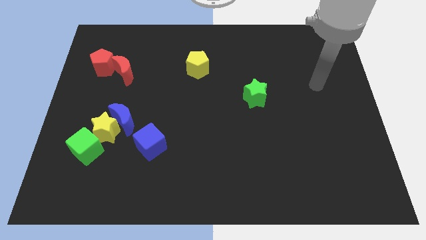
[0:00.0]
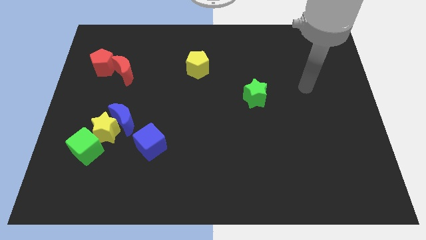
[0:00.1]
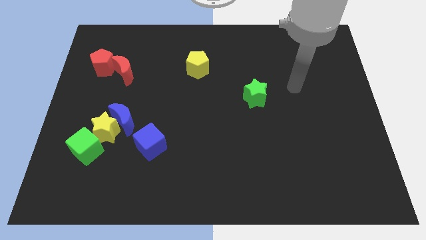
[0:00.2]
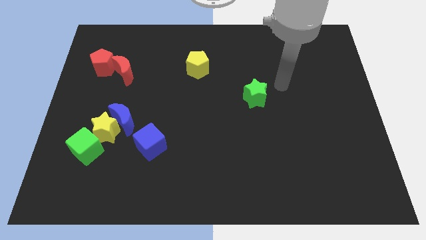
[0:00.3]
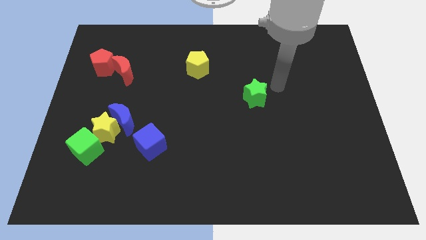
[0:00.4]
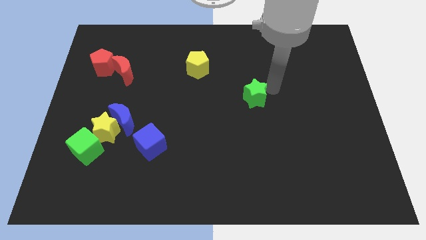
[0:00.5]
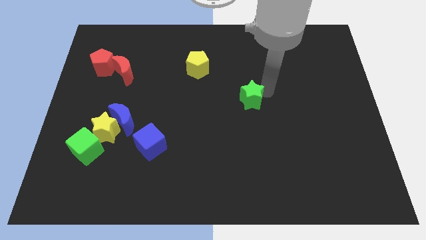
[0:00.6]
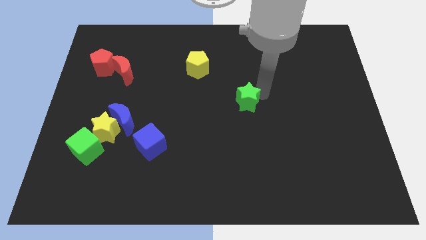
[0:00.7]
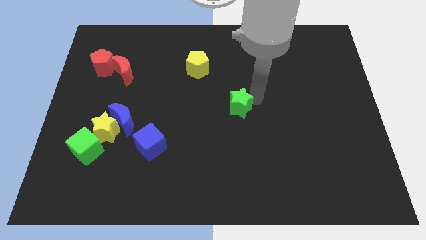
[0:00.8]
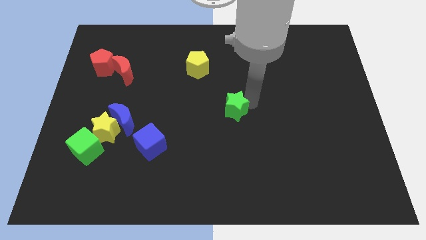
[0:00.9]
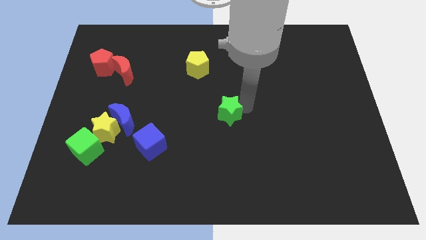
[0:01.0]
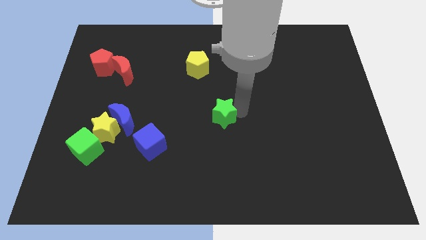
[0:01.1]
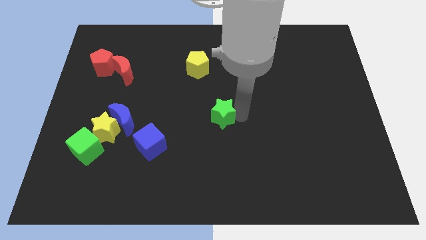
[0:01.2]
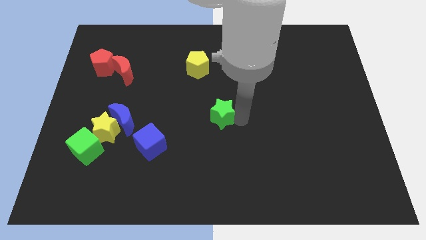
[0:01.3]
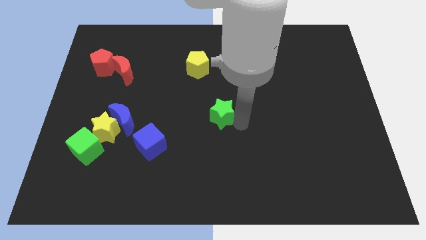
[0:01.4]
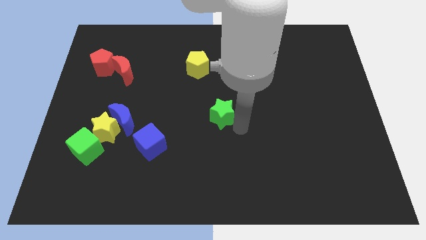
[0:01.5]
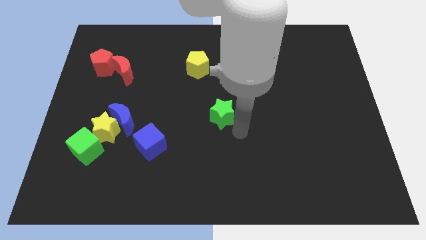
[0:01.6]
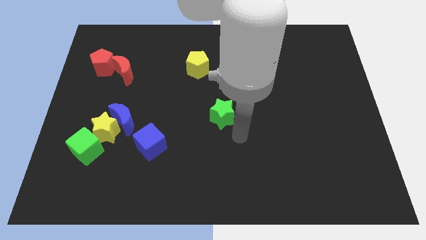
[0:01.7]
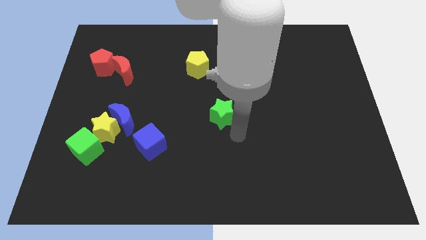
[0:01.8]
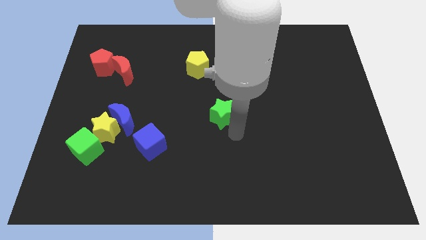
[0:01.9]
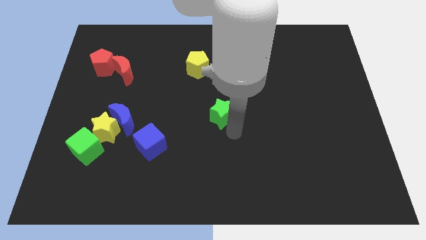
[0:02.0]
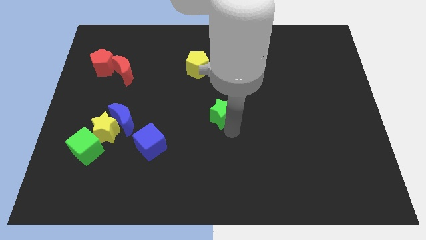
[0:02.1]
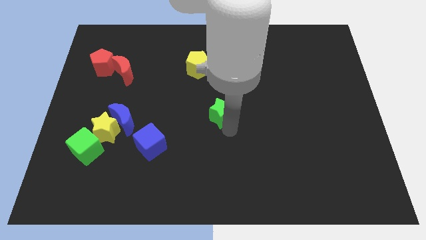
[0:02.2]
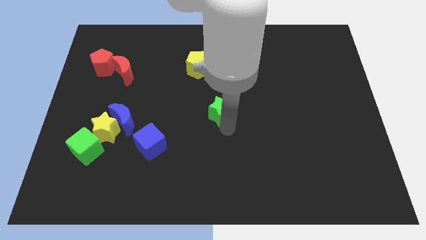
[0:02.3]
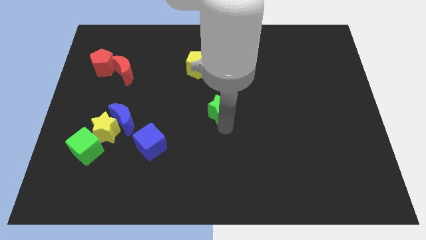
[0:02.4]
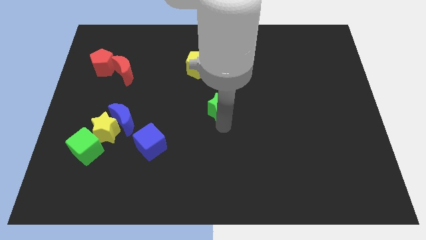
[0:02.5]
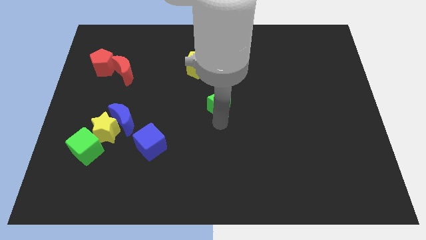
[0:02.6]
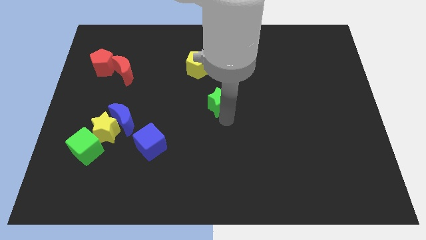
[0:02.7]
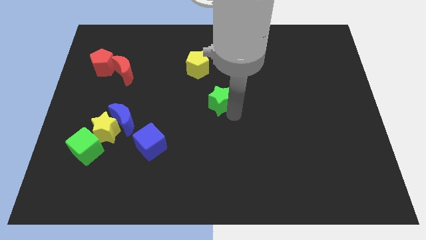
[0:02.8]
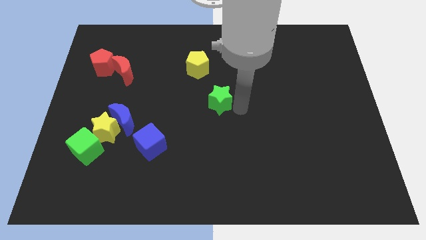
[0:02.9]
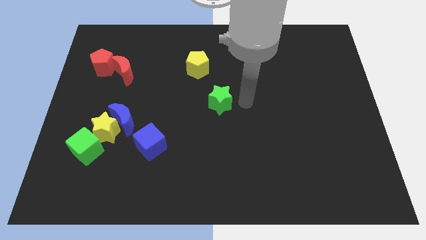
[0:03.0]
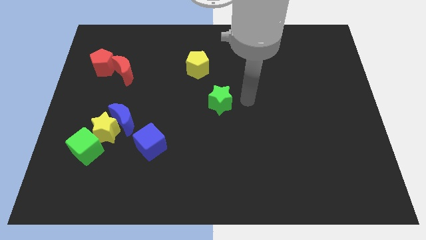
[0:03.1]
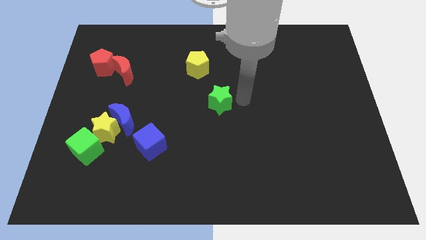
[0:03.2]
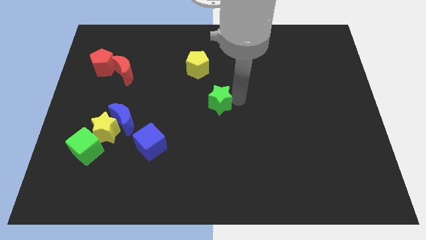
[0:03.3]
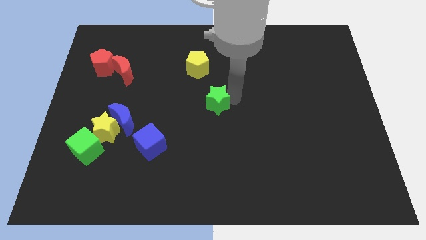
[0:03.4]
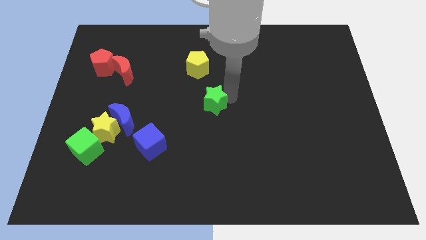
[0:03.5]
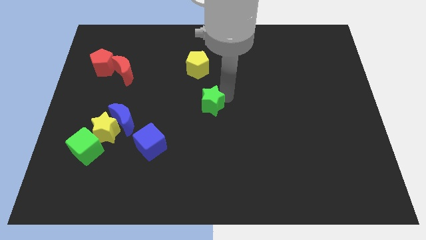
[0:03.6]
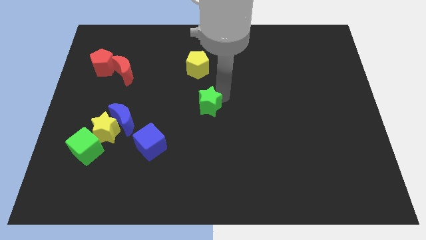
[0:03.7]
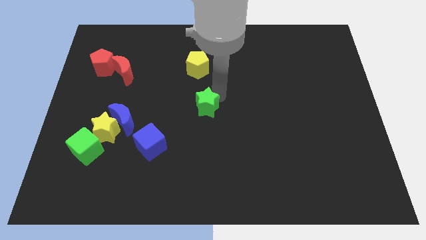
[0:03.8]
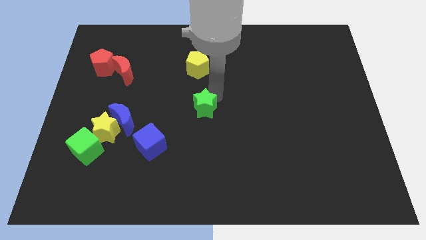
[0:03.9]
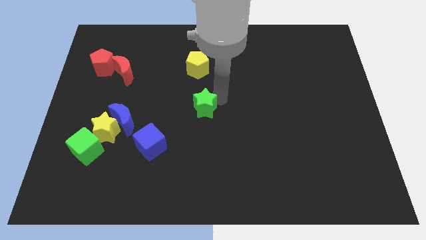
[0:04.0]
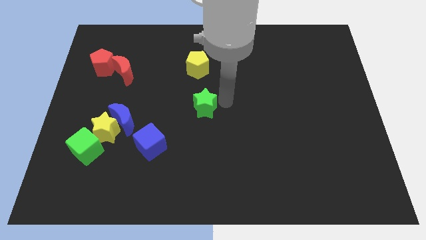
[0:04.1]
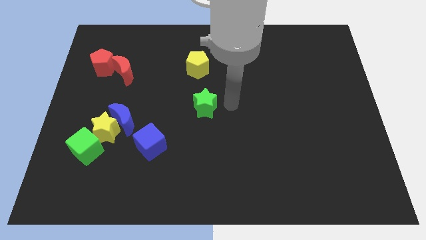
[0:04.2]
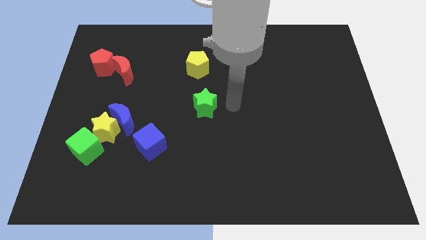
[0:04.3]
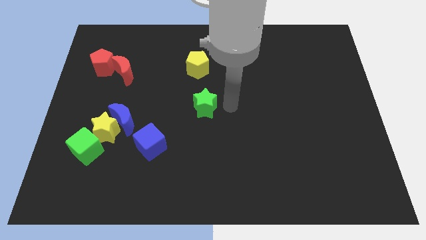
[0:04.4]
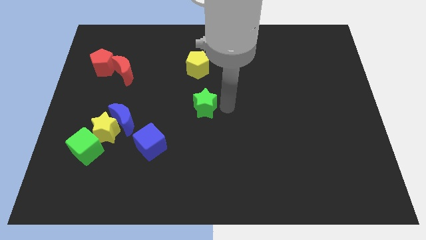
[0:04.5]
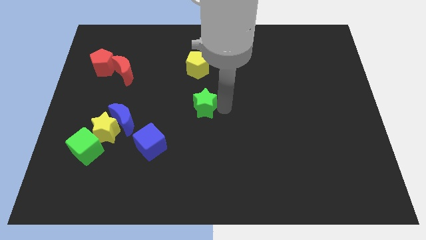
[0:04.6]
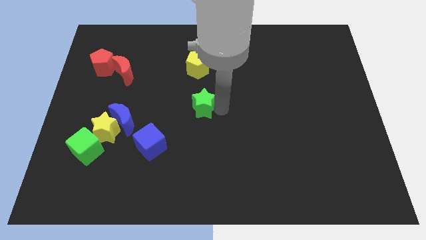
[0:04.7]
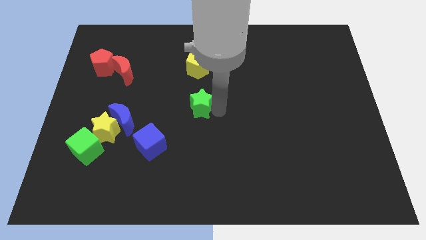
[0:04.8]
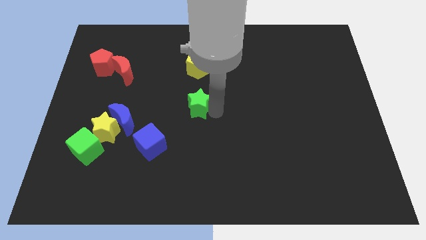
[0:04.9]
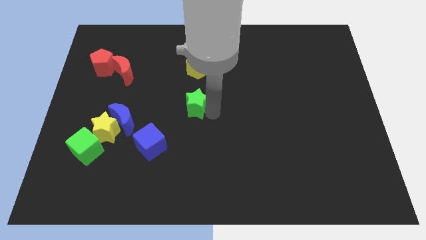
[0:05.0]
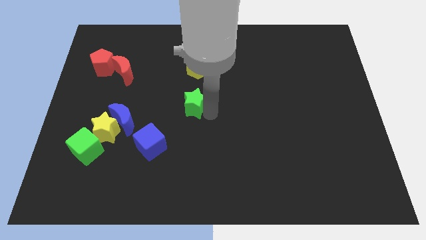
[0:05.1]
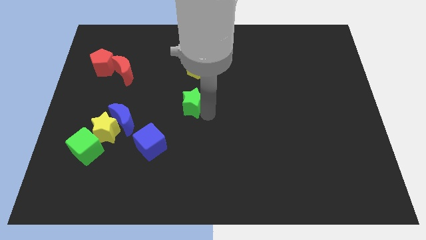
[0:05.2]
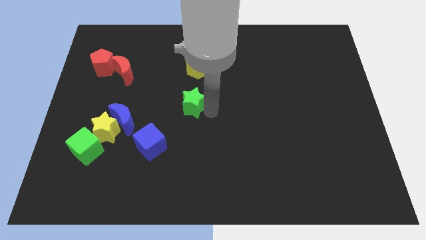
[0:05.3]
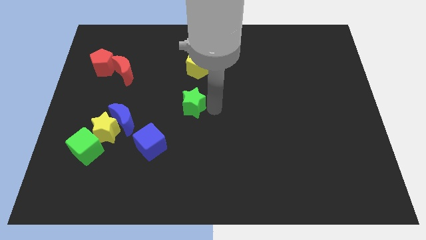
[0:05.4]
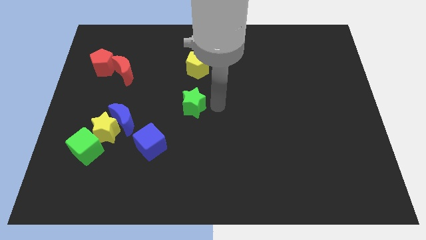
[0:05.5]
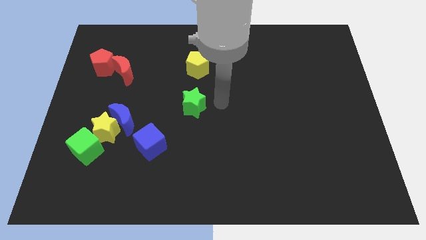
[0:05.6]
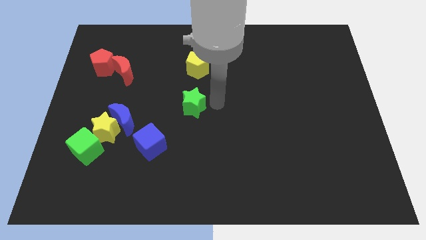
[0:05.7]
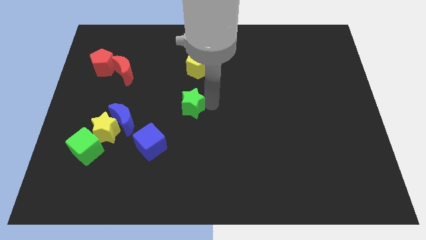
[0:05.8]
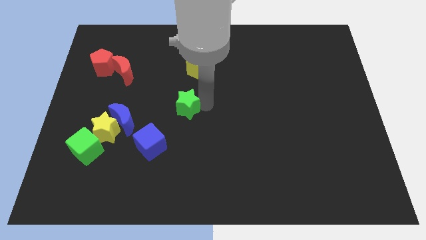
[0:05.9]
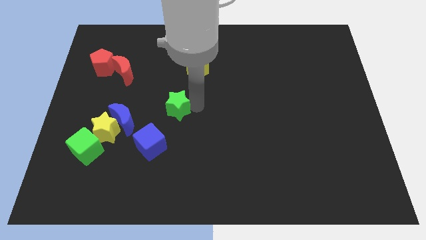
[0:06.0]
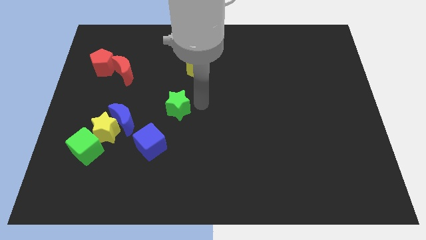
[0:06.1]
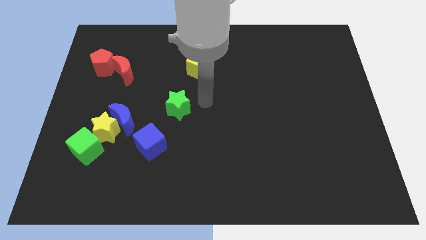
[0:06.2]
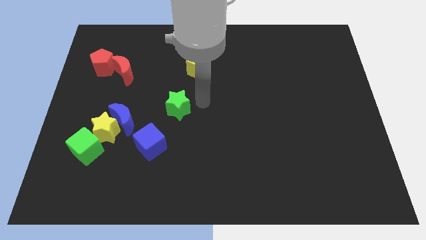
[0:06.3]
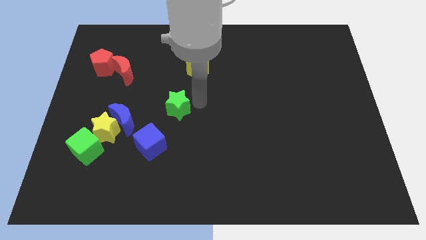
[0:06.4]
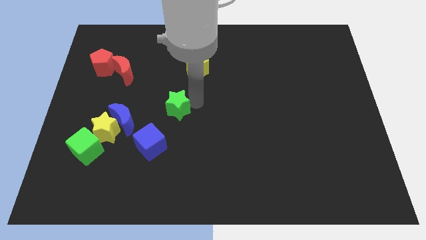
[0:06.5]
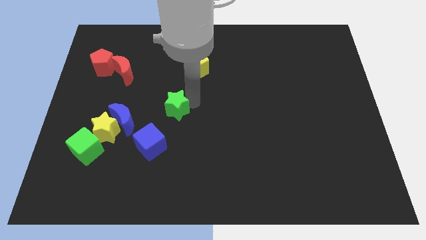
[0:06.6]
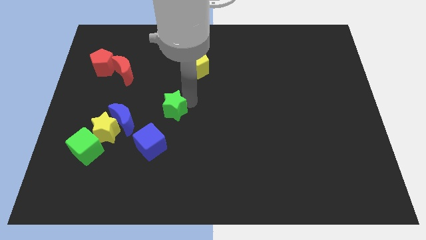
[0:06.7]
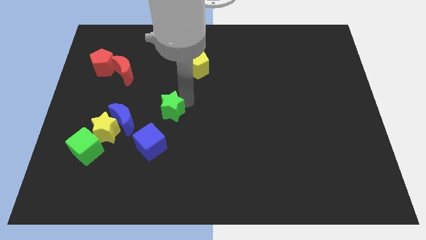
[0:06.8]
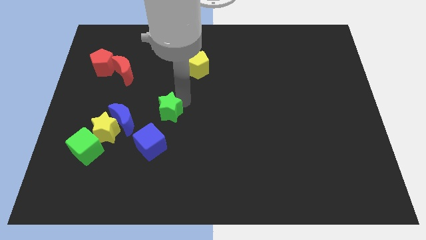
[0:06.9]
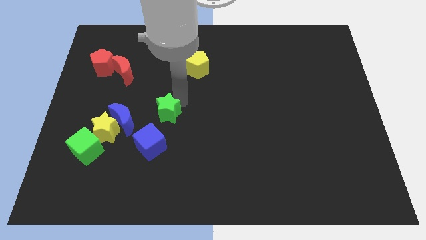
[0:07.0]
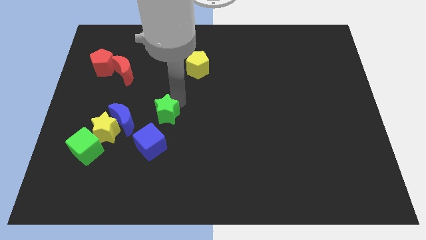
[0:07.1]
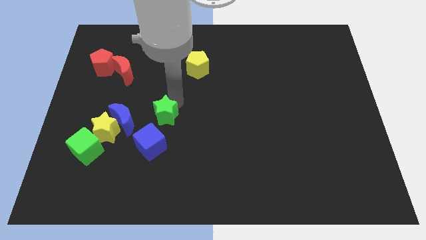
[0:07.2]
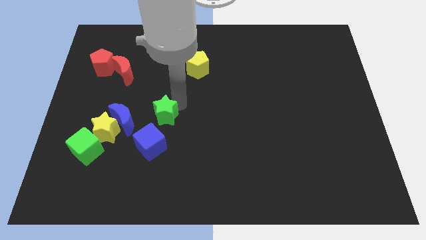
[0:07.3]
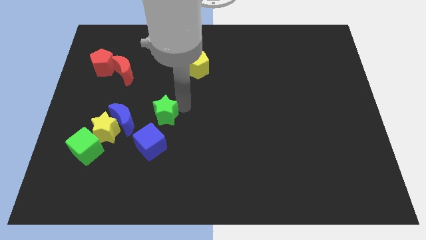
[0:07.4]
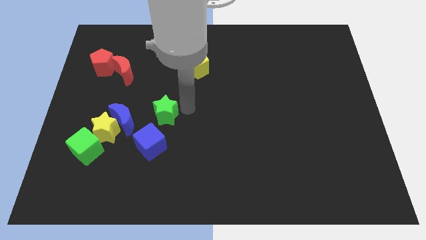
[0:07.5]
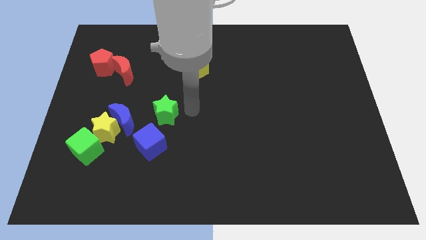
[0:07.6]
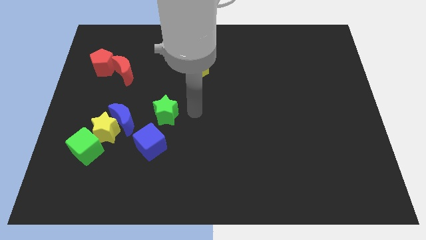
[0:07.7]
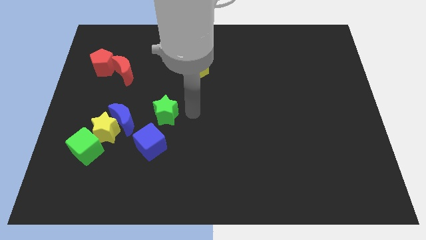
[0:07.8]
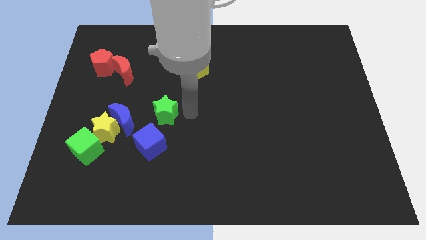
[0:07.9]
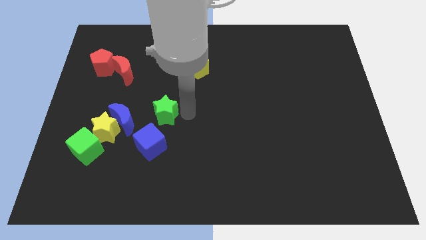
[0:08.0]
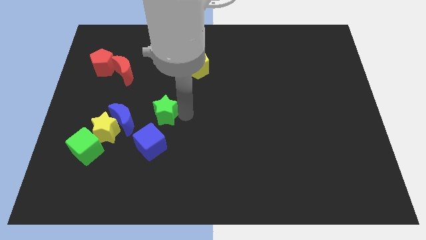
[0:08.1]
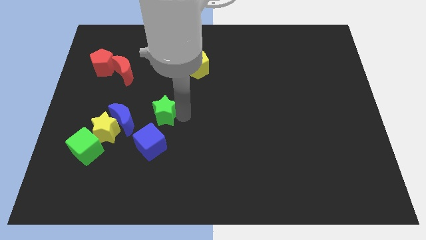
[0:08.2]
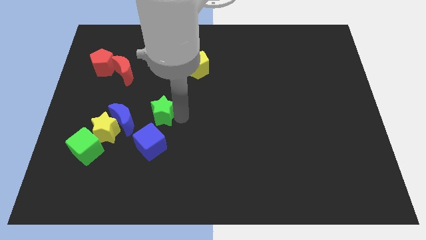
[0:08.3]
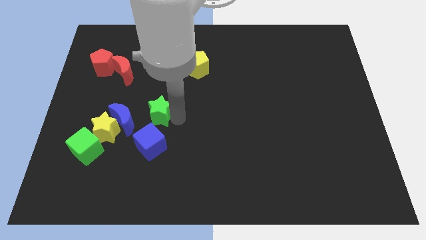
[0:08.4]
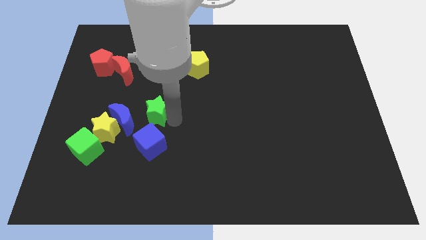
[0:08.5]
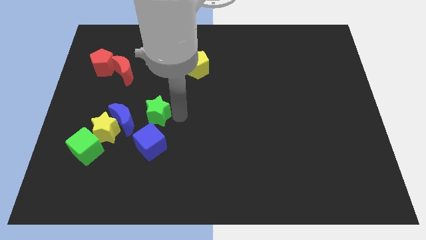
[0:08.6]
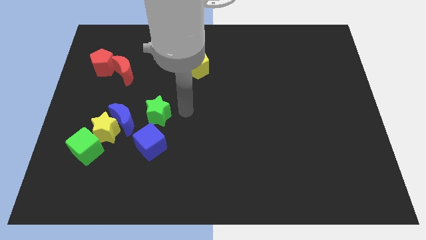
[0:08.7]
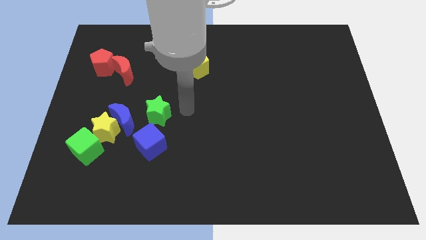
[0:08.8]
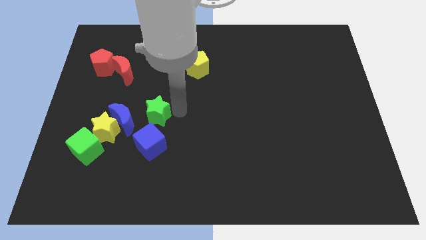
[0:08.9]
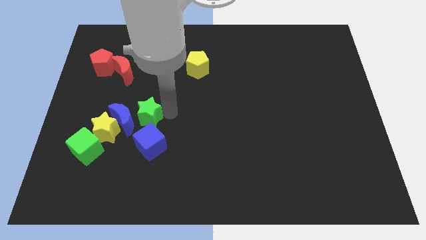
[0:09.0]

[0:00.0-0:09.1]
slide the green star towards the blue moon
